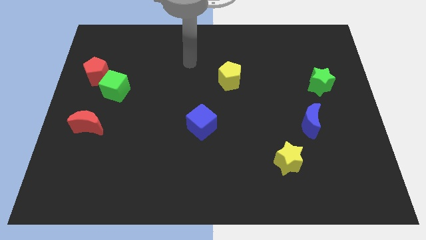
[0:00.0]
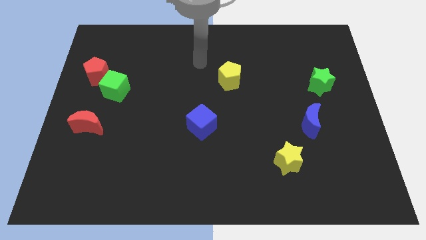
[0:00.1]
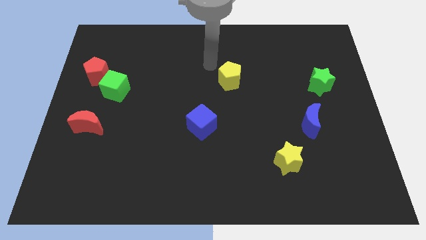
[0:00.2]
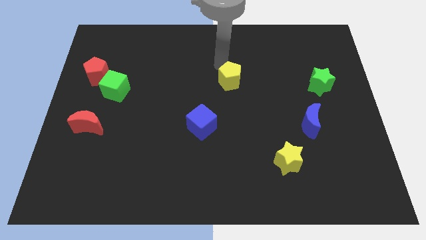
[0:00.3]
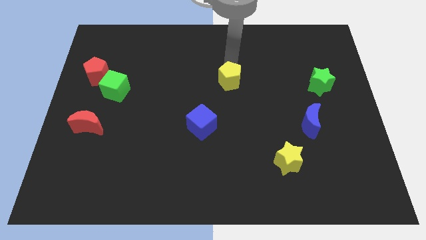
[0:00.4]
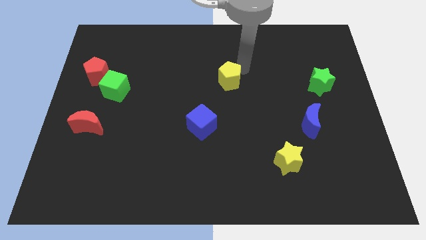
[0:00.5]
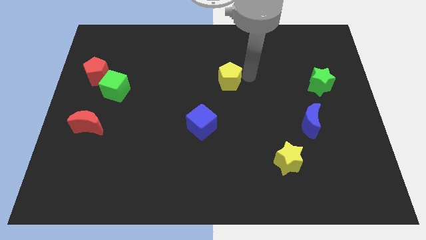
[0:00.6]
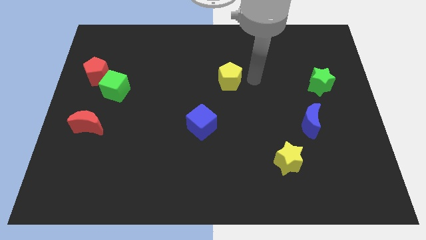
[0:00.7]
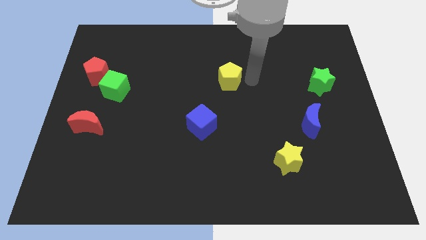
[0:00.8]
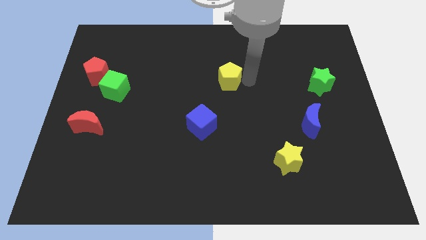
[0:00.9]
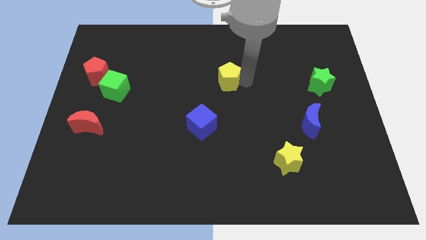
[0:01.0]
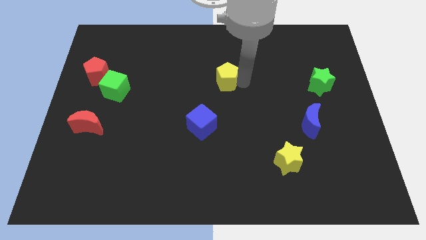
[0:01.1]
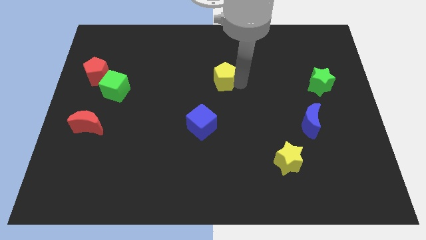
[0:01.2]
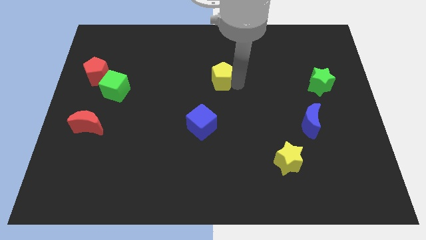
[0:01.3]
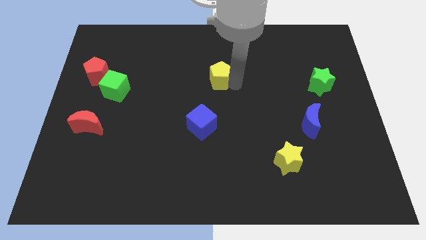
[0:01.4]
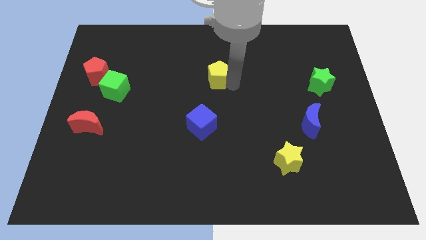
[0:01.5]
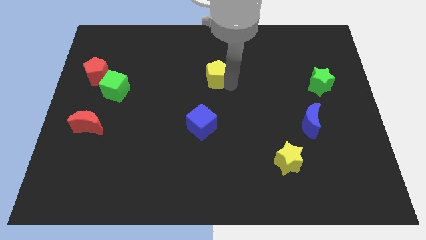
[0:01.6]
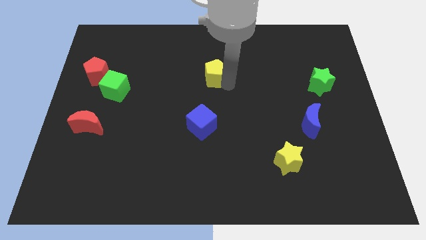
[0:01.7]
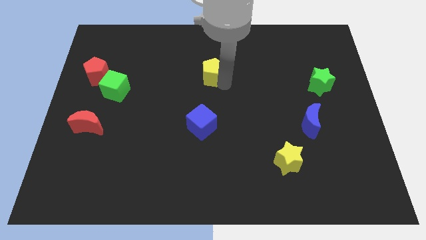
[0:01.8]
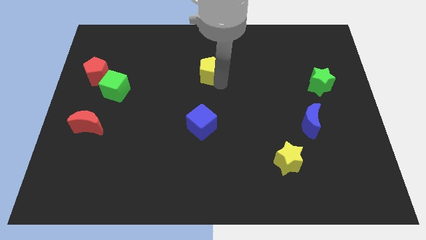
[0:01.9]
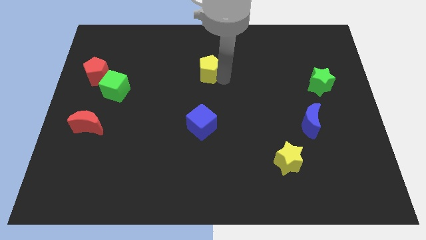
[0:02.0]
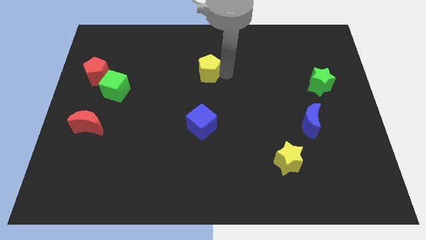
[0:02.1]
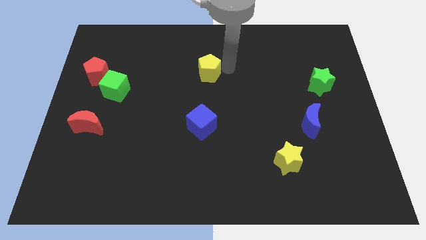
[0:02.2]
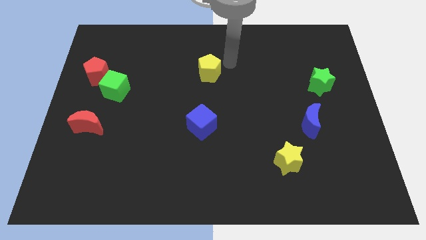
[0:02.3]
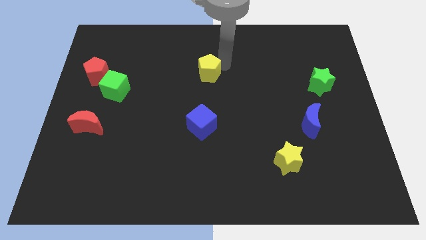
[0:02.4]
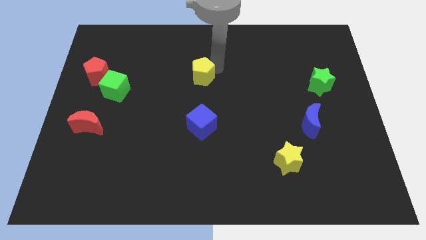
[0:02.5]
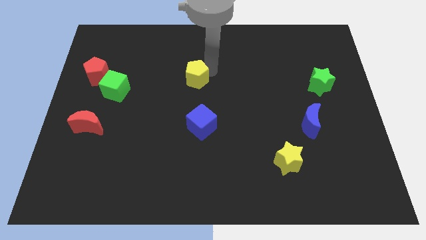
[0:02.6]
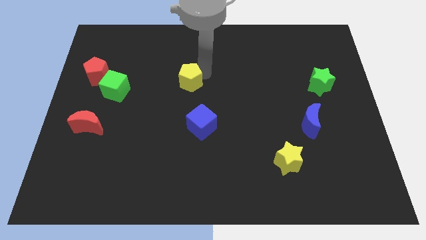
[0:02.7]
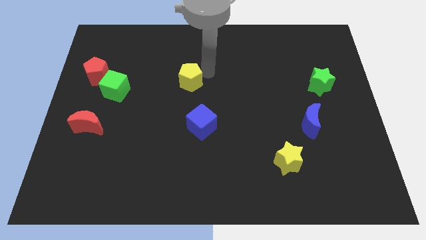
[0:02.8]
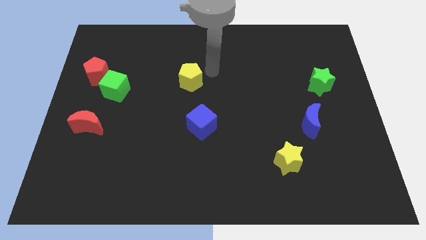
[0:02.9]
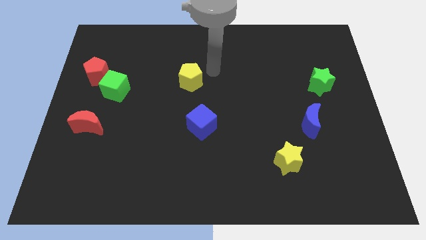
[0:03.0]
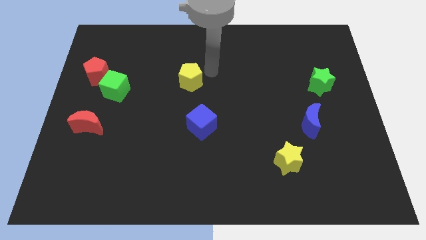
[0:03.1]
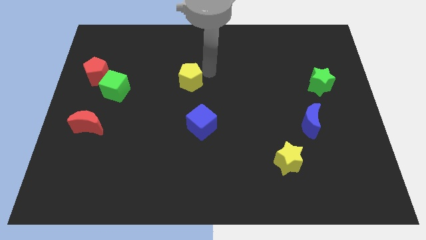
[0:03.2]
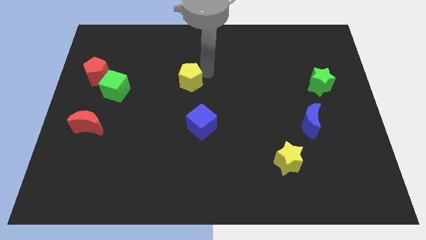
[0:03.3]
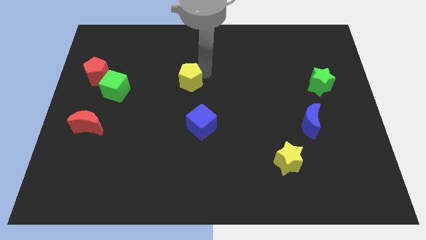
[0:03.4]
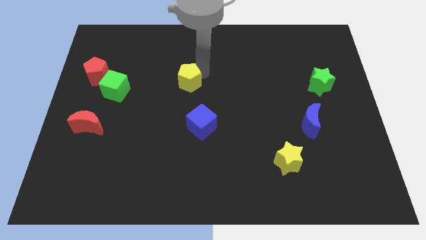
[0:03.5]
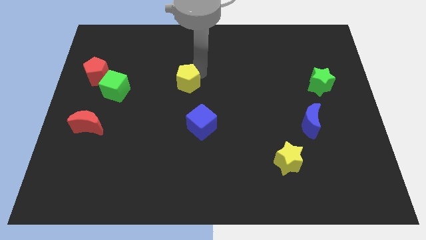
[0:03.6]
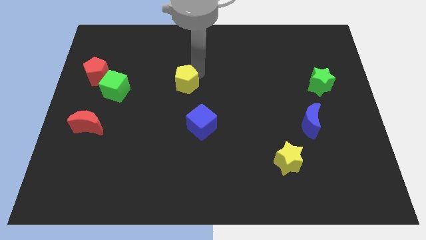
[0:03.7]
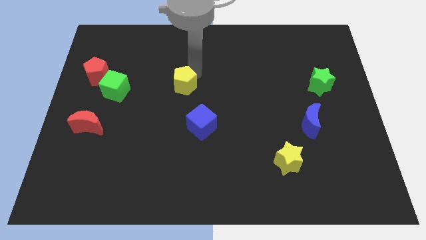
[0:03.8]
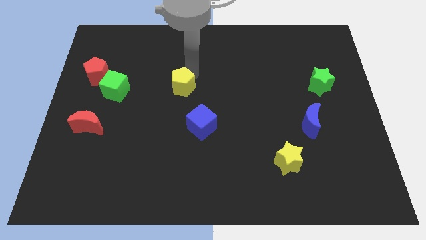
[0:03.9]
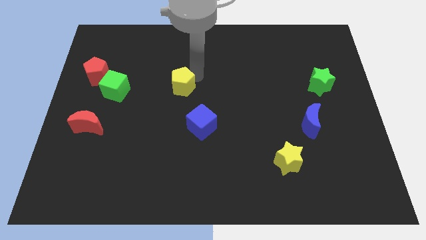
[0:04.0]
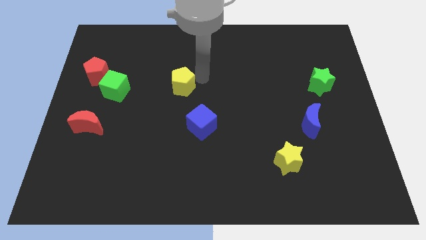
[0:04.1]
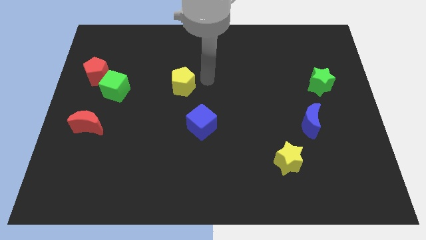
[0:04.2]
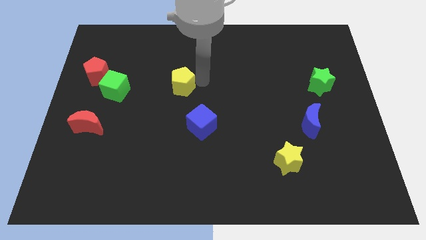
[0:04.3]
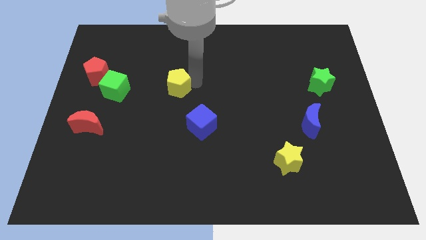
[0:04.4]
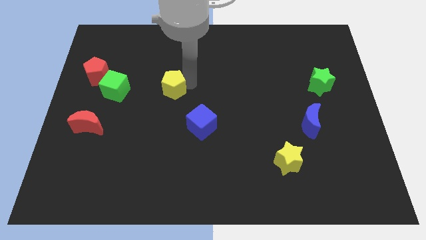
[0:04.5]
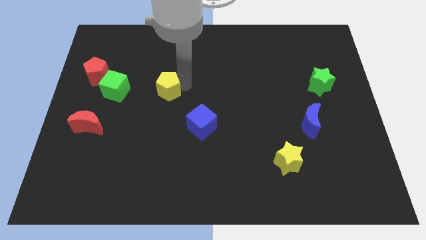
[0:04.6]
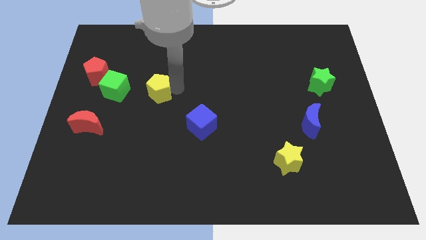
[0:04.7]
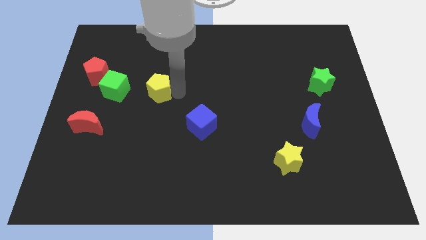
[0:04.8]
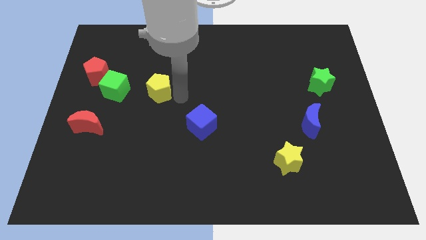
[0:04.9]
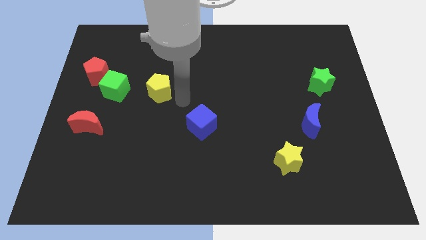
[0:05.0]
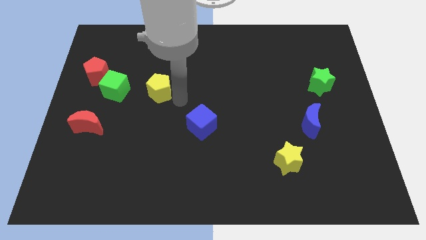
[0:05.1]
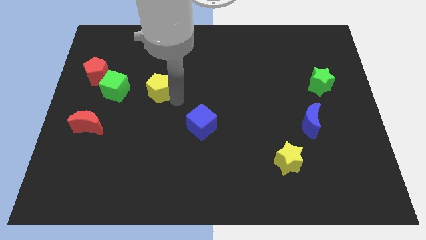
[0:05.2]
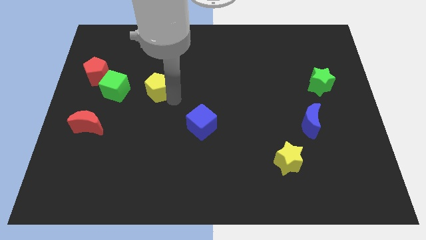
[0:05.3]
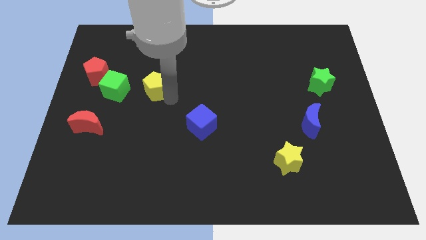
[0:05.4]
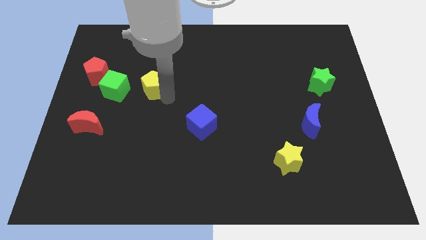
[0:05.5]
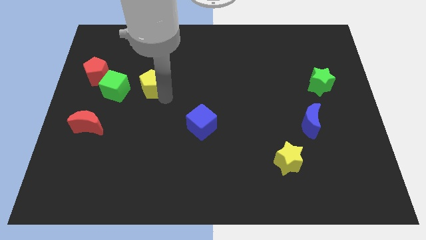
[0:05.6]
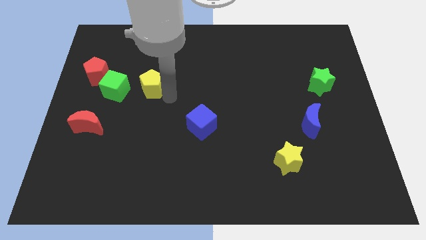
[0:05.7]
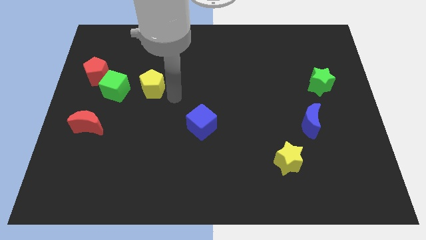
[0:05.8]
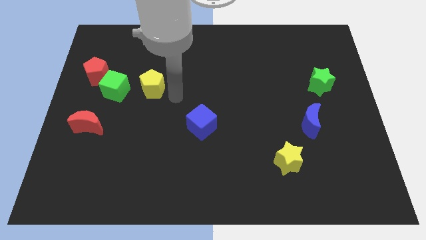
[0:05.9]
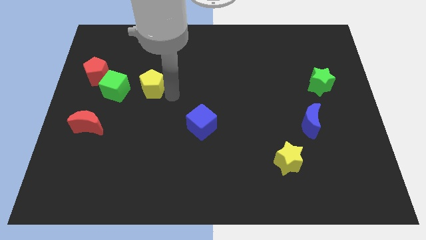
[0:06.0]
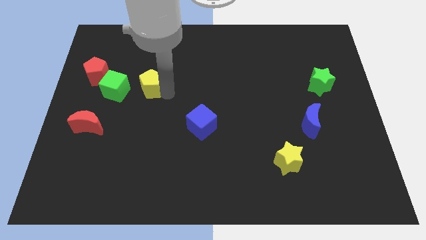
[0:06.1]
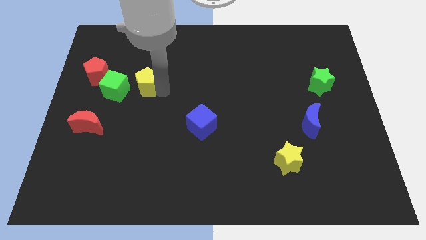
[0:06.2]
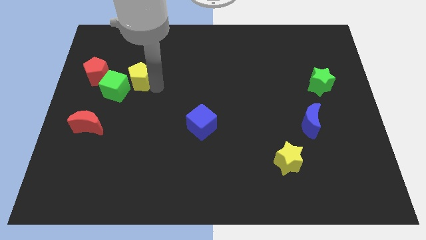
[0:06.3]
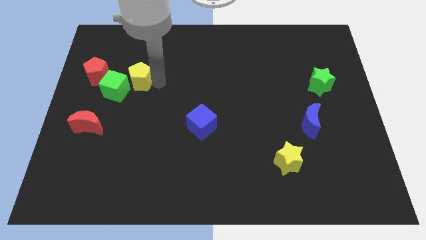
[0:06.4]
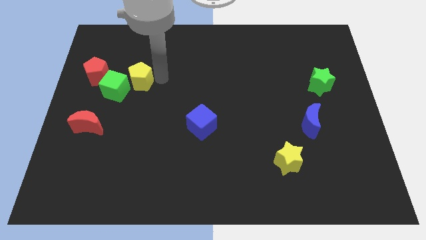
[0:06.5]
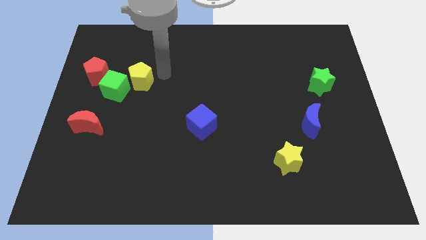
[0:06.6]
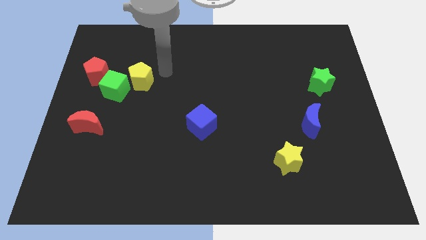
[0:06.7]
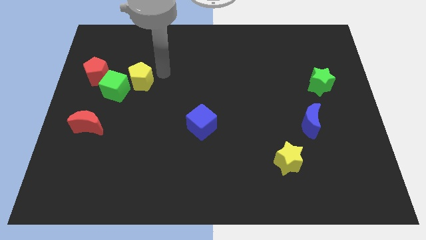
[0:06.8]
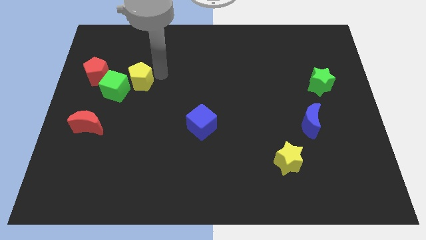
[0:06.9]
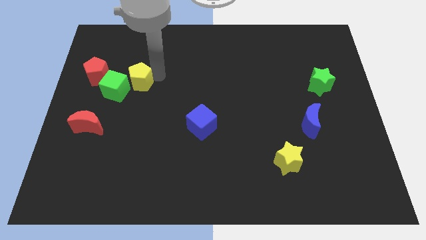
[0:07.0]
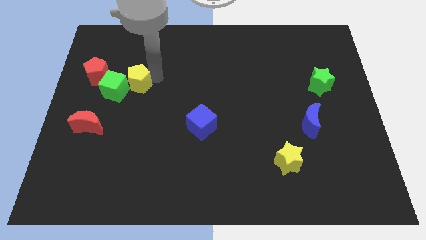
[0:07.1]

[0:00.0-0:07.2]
put the yellow pentagon next to the green cube
